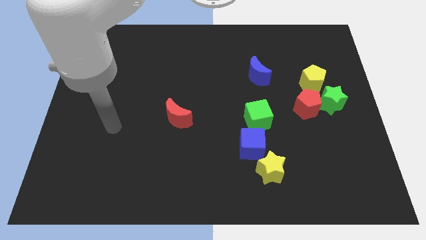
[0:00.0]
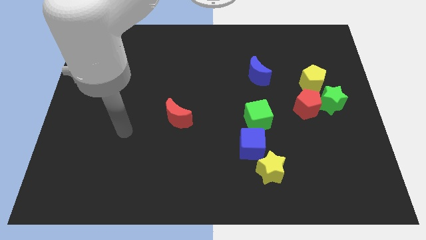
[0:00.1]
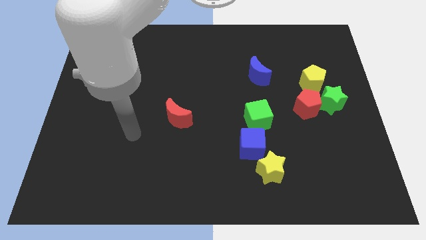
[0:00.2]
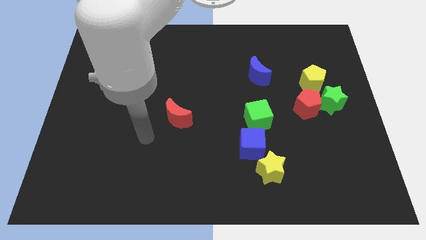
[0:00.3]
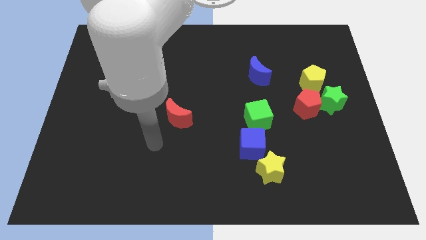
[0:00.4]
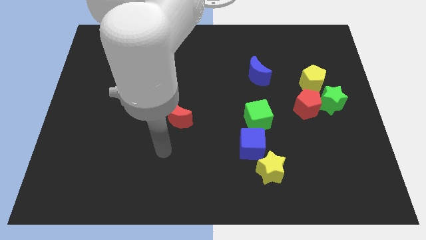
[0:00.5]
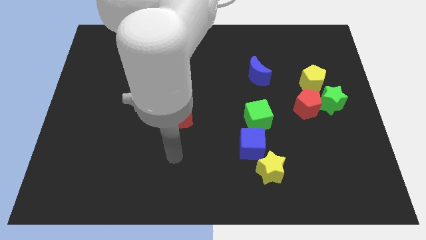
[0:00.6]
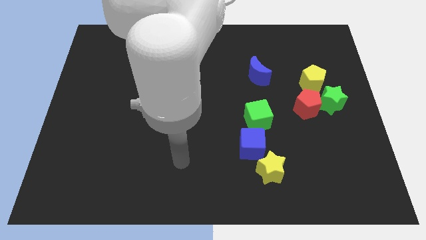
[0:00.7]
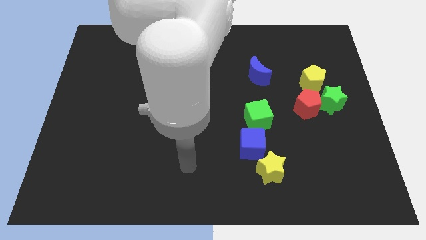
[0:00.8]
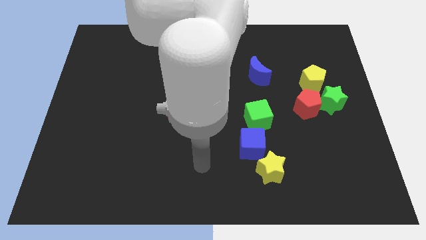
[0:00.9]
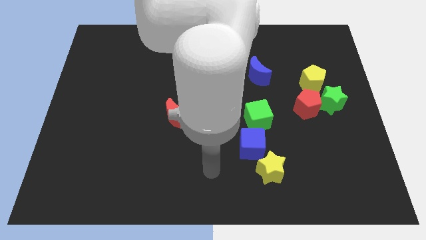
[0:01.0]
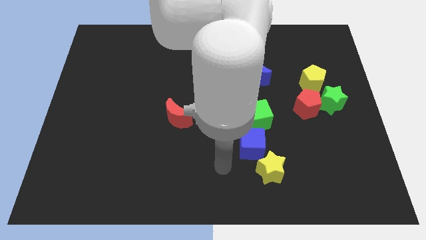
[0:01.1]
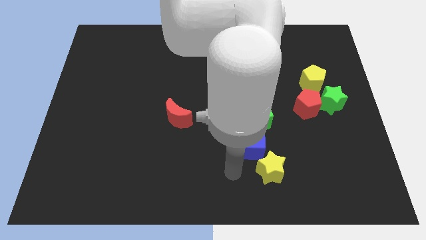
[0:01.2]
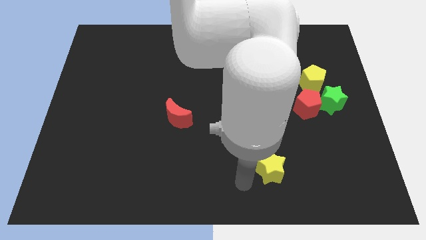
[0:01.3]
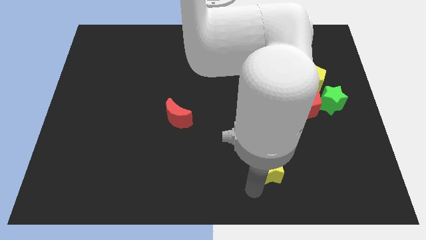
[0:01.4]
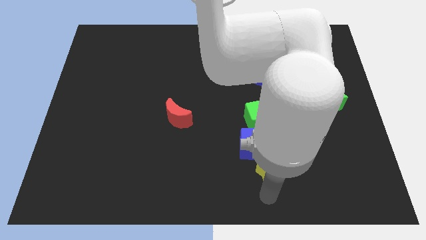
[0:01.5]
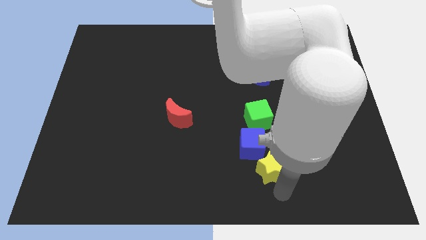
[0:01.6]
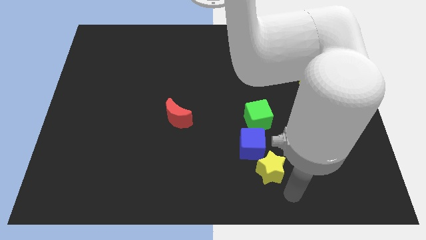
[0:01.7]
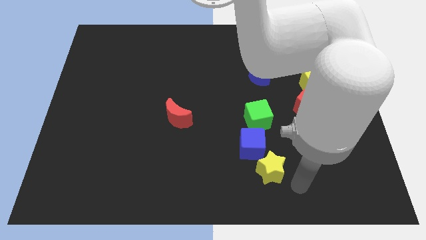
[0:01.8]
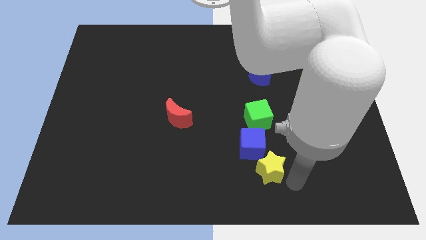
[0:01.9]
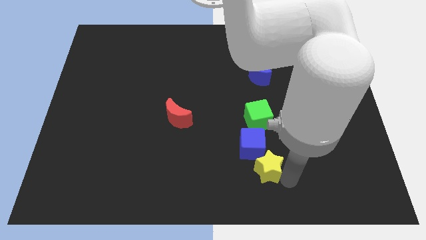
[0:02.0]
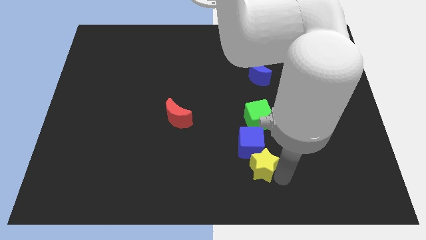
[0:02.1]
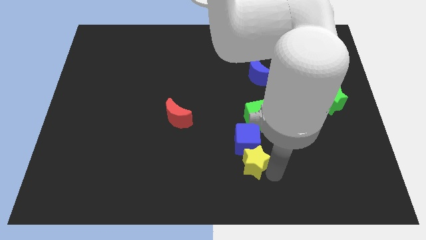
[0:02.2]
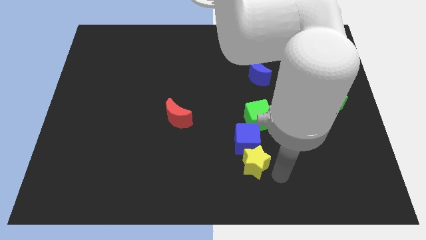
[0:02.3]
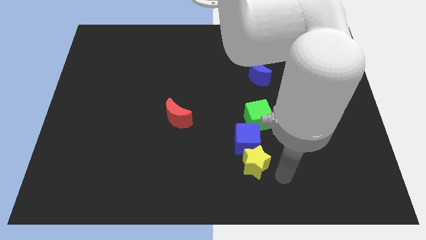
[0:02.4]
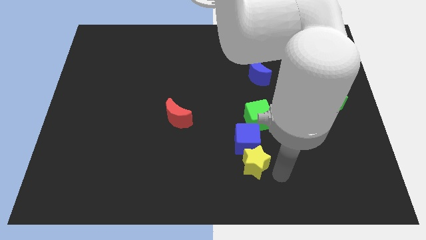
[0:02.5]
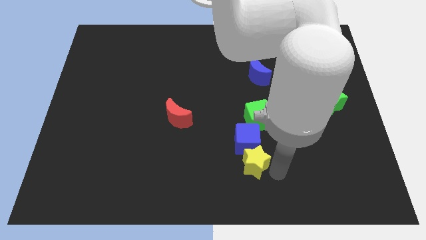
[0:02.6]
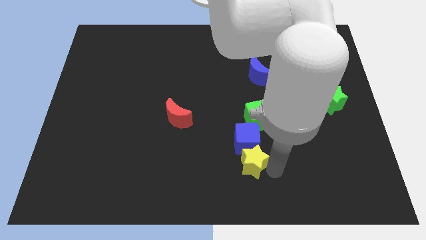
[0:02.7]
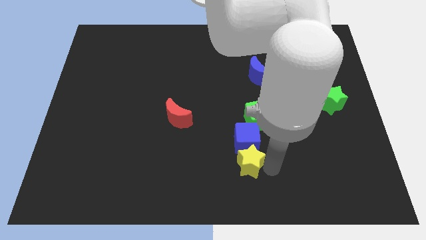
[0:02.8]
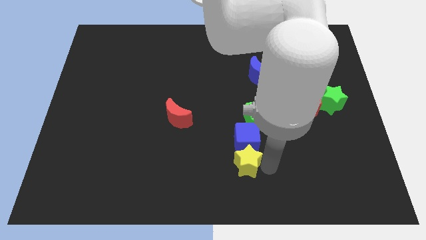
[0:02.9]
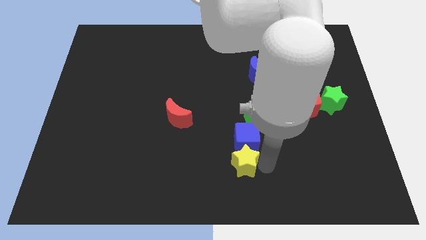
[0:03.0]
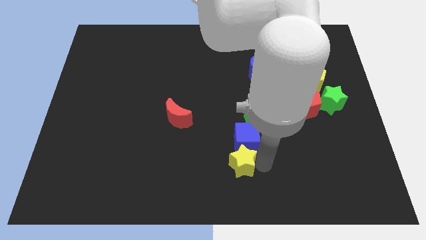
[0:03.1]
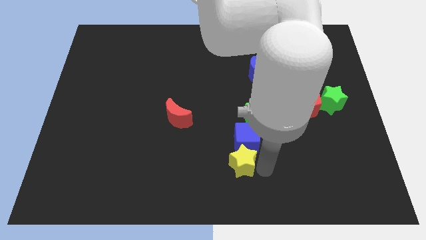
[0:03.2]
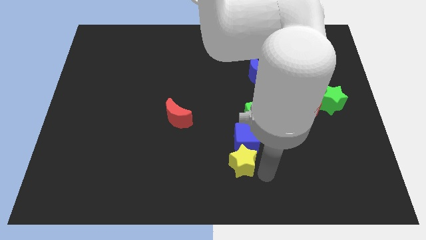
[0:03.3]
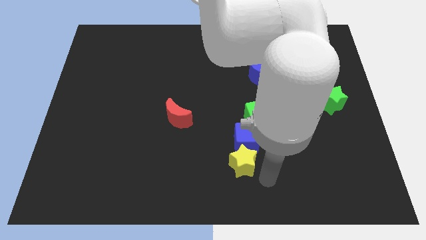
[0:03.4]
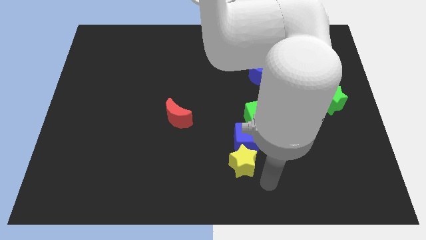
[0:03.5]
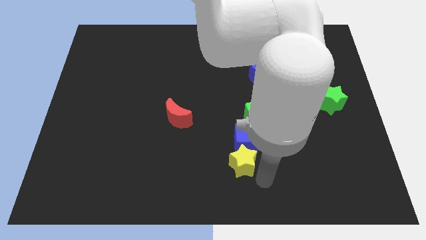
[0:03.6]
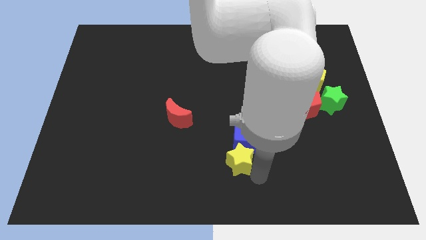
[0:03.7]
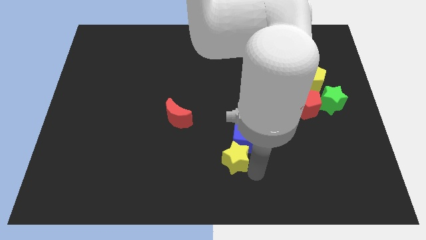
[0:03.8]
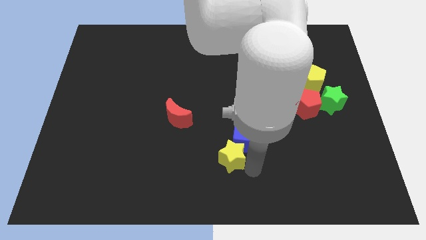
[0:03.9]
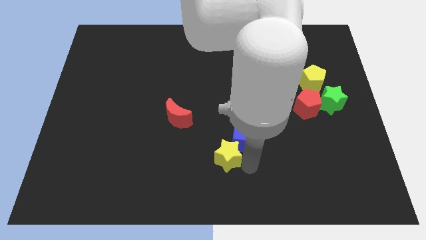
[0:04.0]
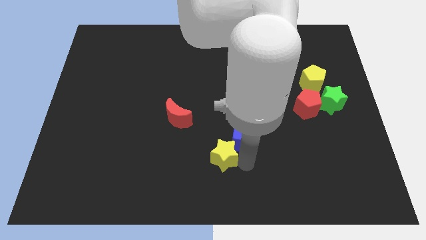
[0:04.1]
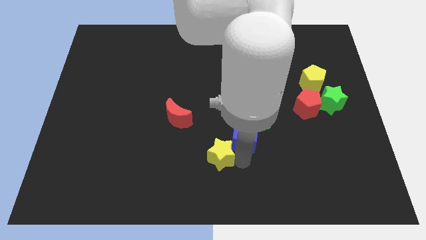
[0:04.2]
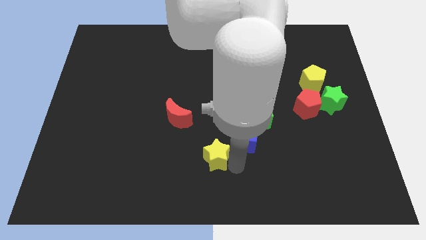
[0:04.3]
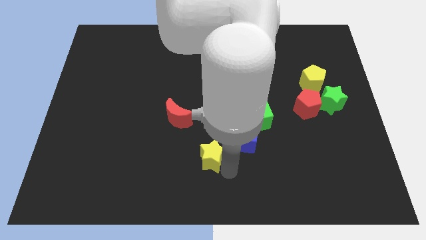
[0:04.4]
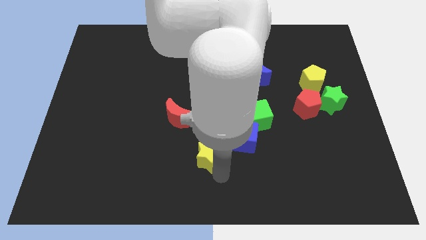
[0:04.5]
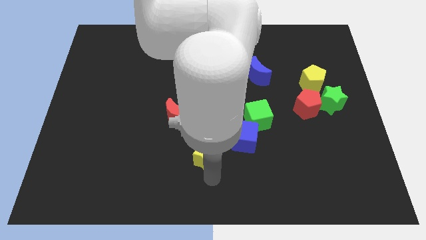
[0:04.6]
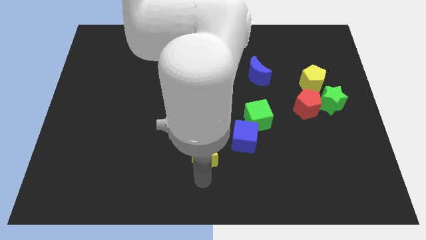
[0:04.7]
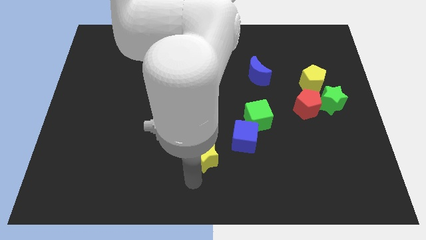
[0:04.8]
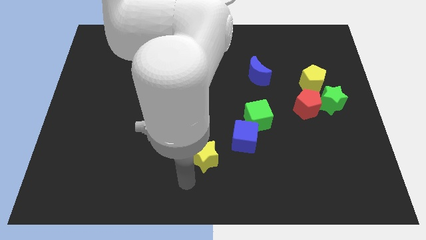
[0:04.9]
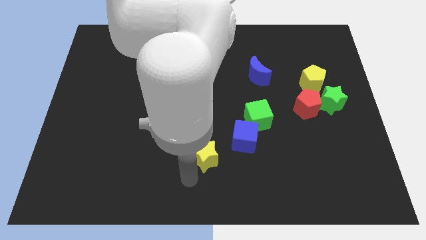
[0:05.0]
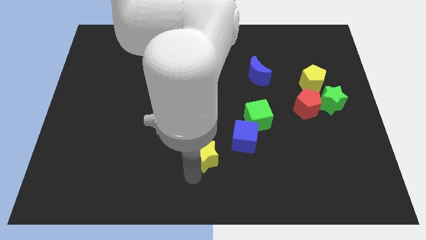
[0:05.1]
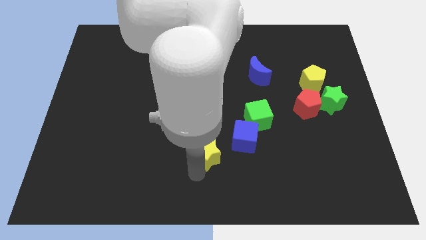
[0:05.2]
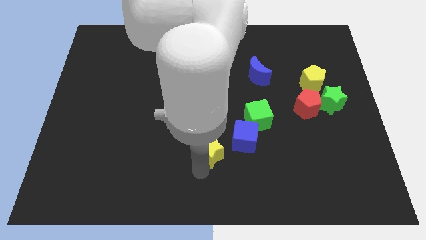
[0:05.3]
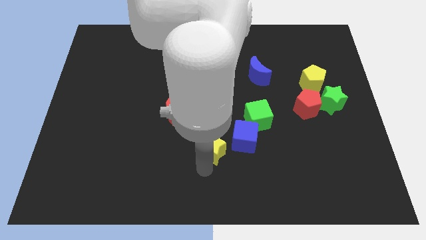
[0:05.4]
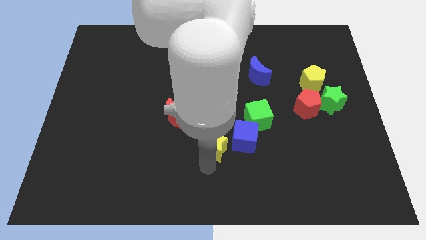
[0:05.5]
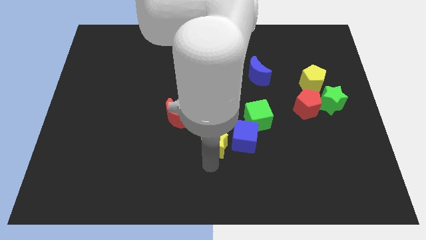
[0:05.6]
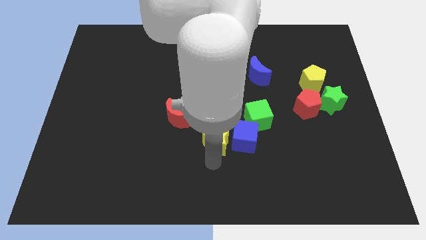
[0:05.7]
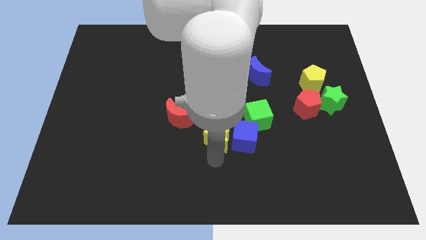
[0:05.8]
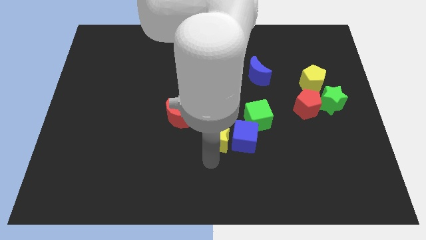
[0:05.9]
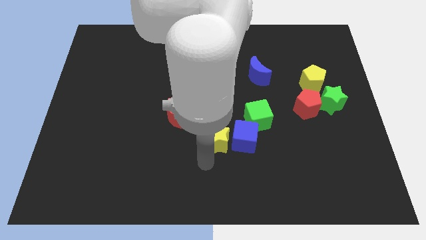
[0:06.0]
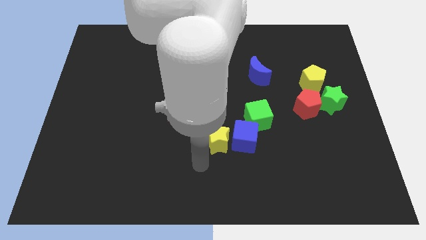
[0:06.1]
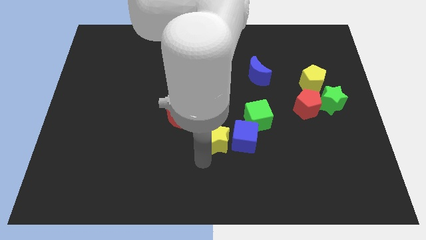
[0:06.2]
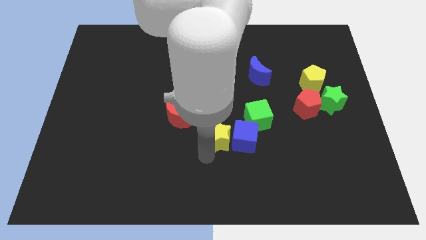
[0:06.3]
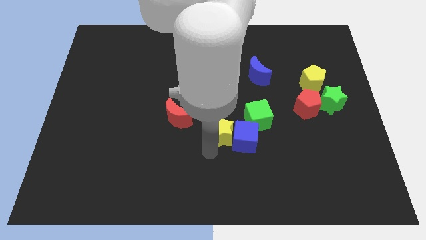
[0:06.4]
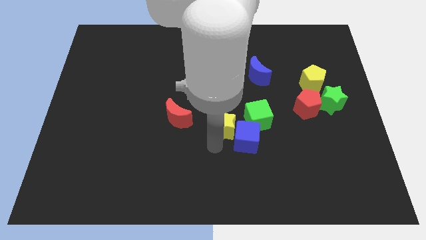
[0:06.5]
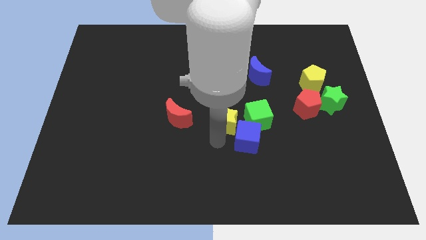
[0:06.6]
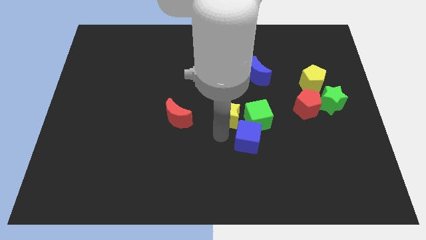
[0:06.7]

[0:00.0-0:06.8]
move the yellow star to the top left of the green cube
